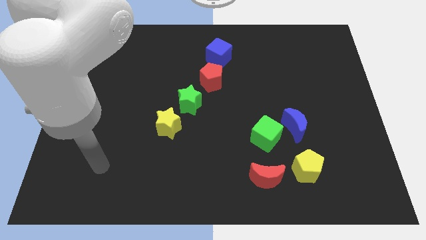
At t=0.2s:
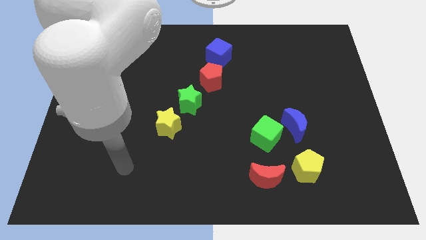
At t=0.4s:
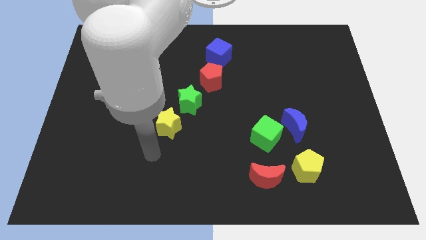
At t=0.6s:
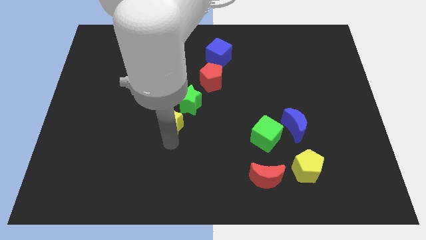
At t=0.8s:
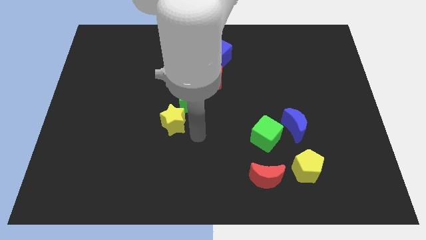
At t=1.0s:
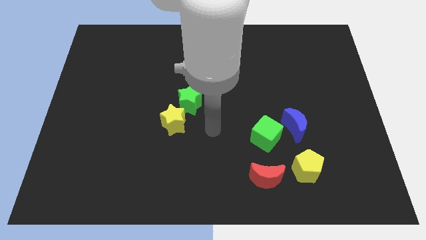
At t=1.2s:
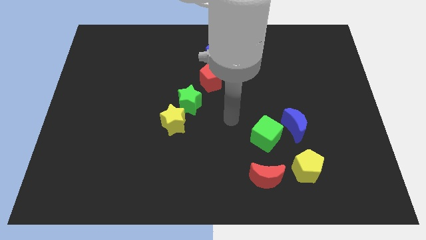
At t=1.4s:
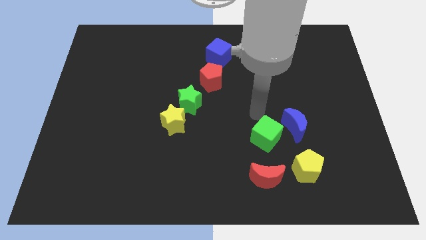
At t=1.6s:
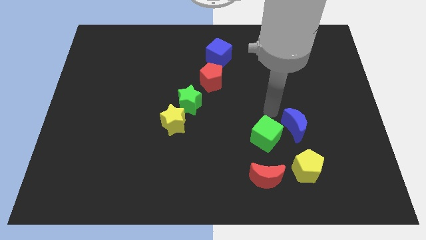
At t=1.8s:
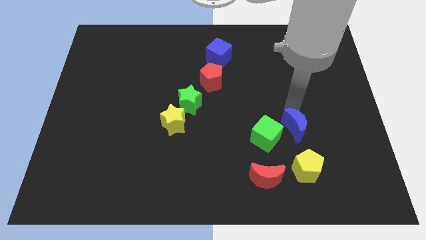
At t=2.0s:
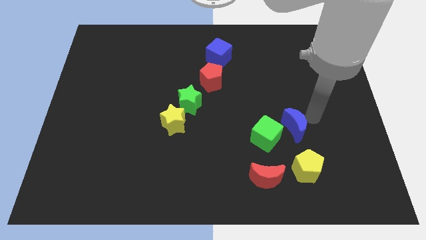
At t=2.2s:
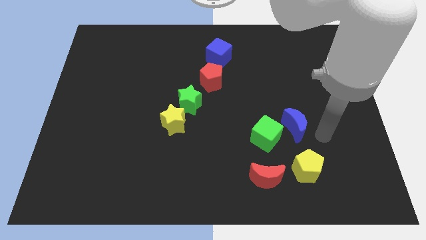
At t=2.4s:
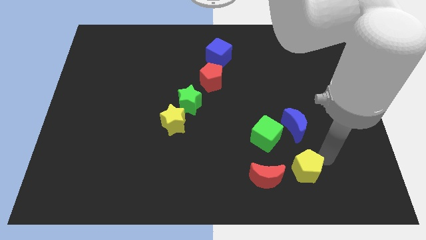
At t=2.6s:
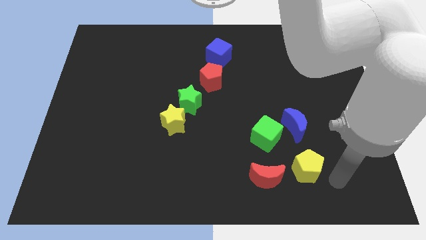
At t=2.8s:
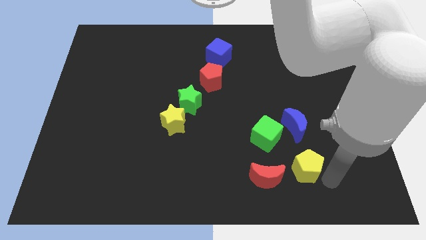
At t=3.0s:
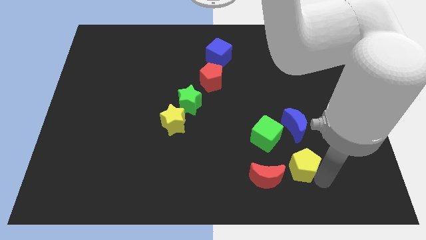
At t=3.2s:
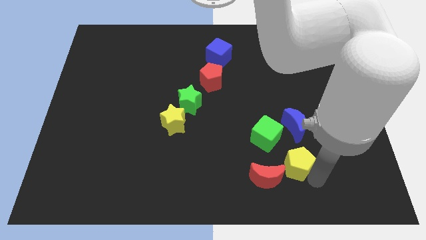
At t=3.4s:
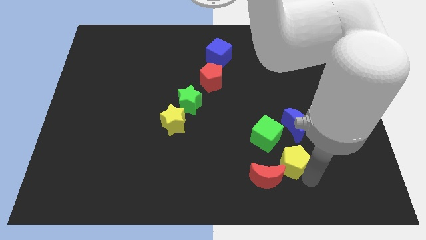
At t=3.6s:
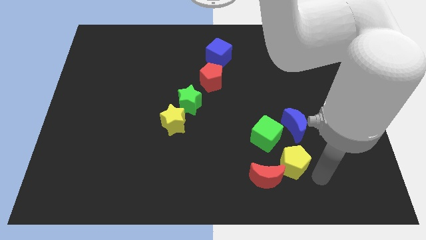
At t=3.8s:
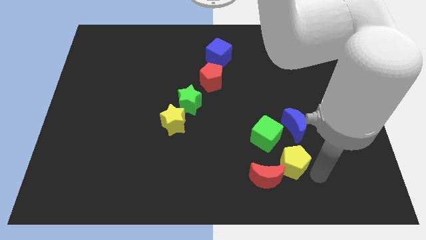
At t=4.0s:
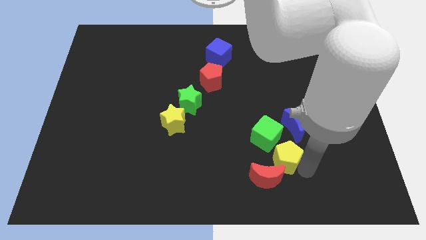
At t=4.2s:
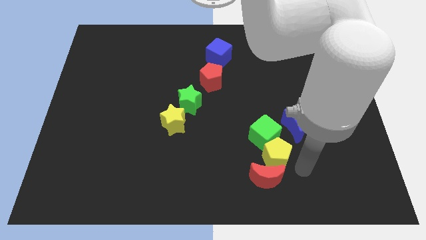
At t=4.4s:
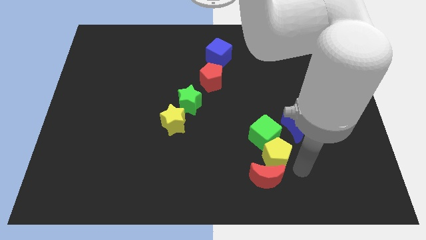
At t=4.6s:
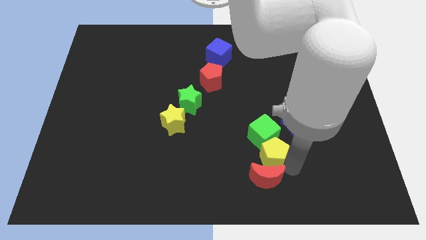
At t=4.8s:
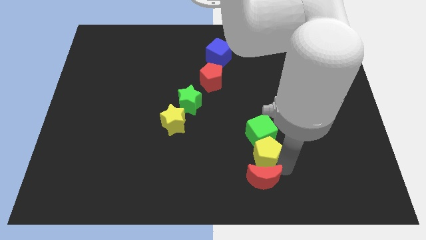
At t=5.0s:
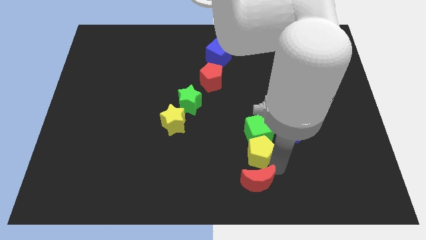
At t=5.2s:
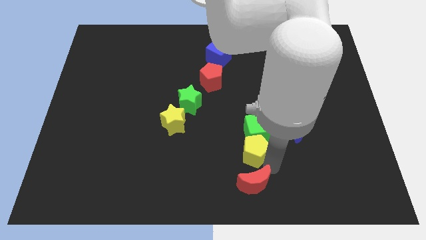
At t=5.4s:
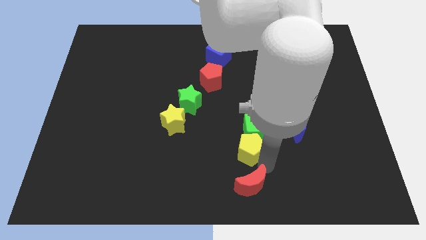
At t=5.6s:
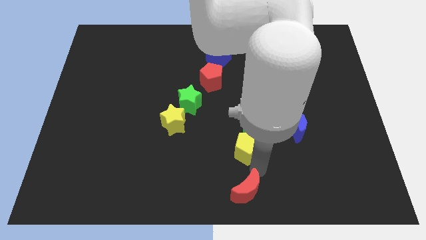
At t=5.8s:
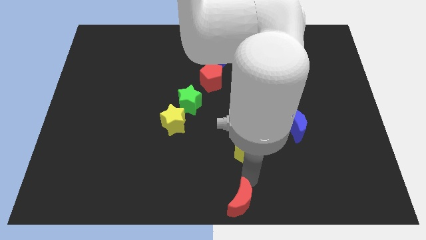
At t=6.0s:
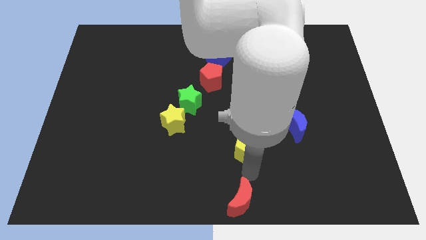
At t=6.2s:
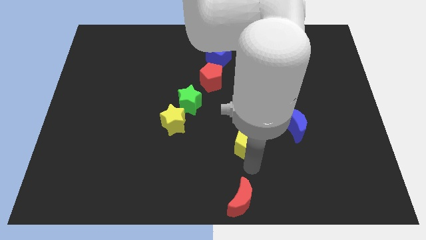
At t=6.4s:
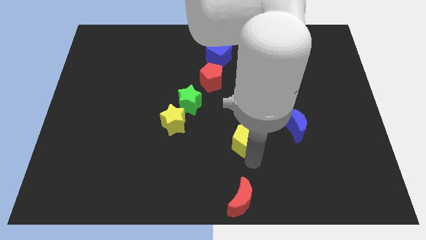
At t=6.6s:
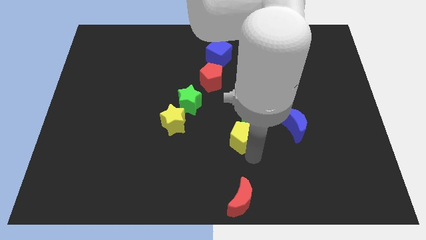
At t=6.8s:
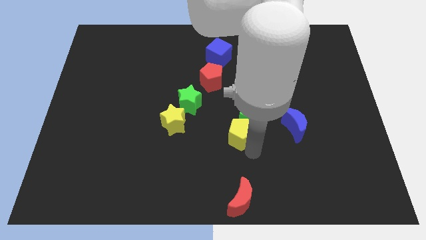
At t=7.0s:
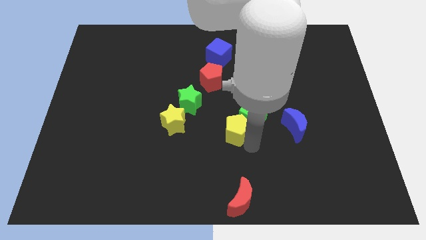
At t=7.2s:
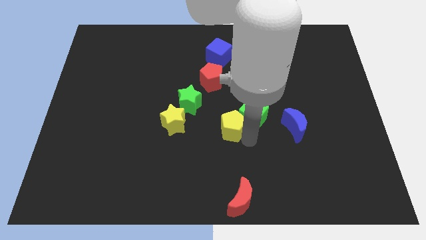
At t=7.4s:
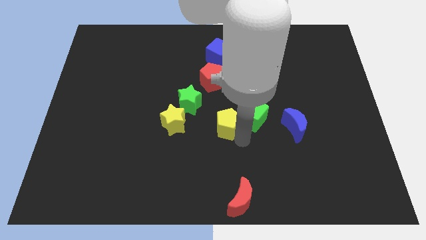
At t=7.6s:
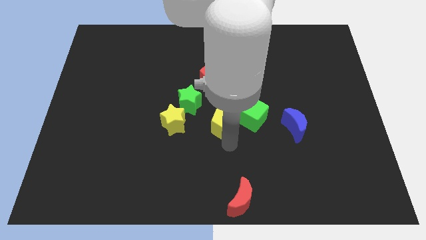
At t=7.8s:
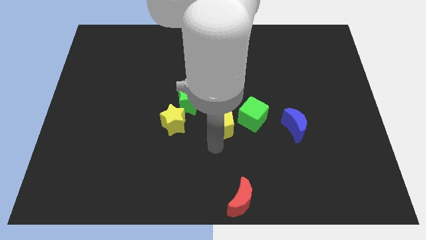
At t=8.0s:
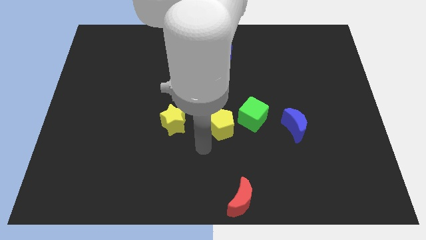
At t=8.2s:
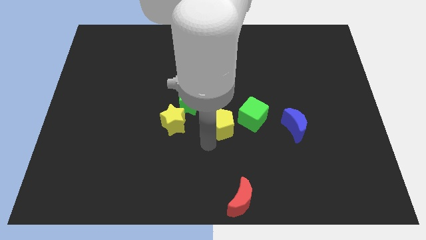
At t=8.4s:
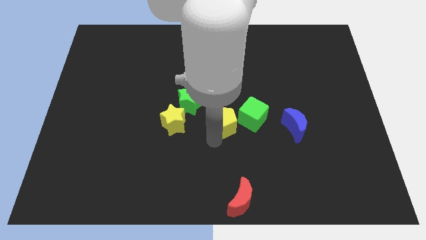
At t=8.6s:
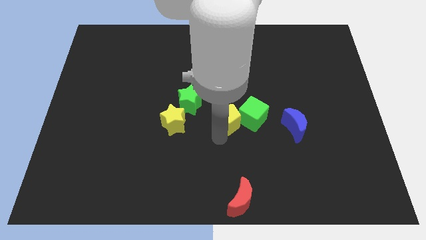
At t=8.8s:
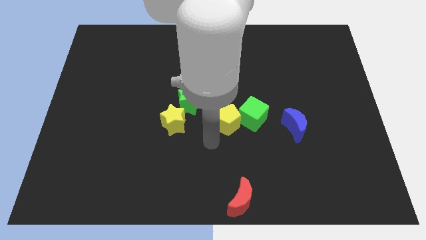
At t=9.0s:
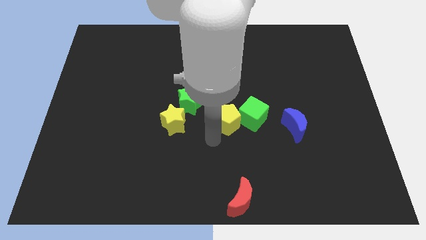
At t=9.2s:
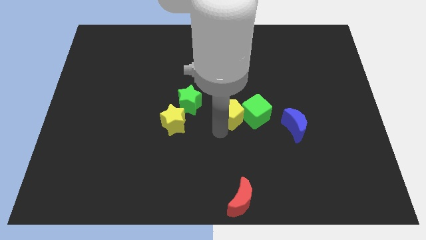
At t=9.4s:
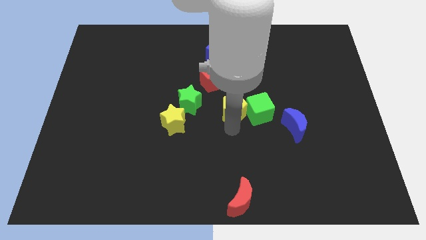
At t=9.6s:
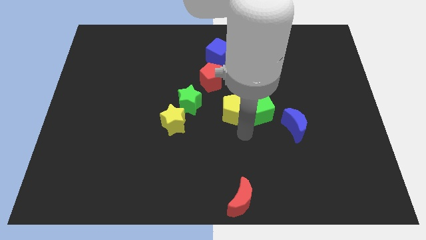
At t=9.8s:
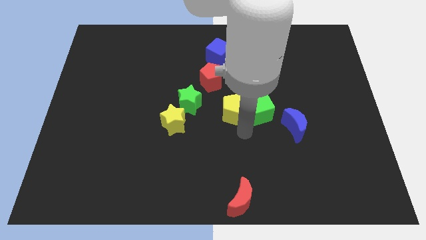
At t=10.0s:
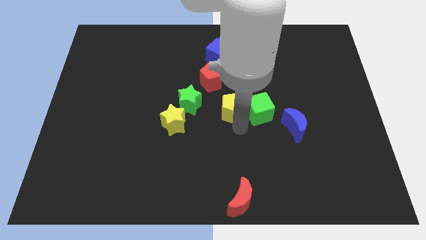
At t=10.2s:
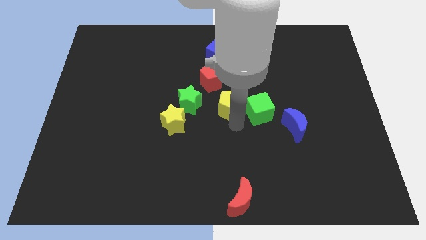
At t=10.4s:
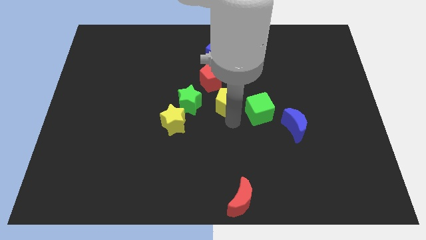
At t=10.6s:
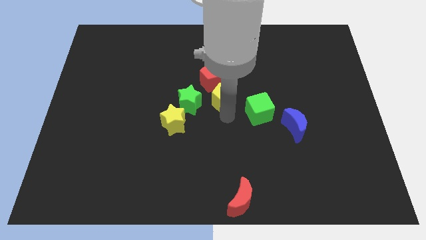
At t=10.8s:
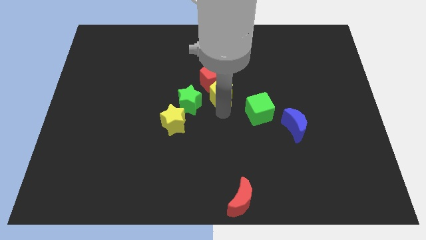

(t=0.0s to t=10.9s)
put the yellow pentagon close to the red pentagon
